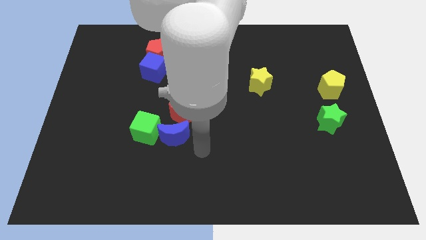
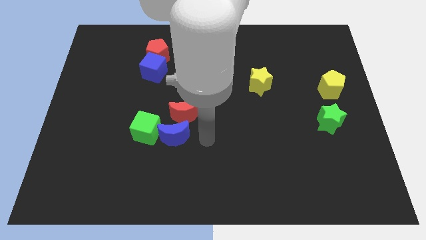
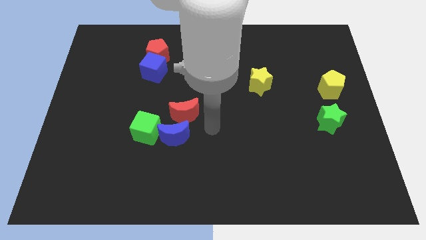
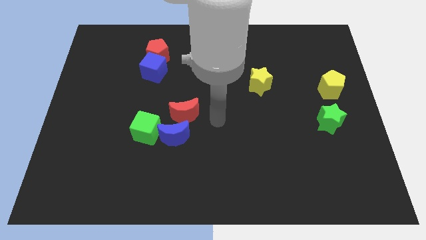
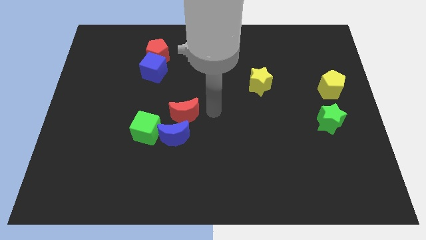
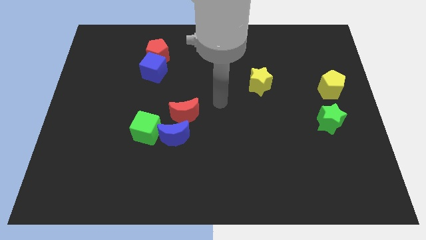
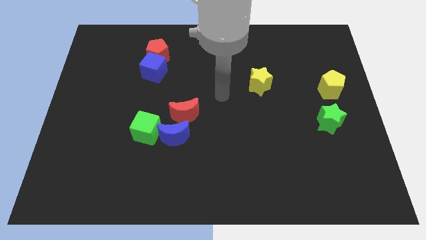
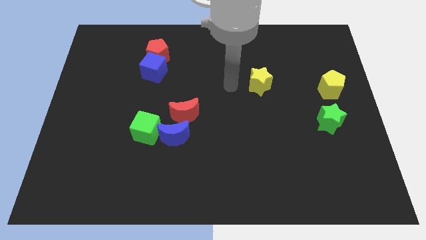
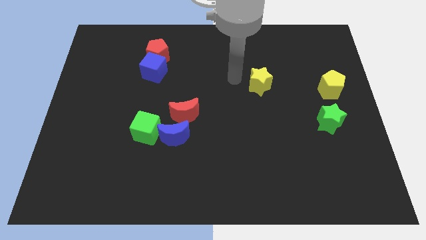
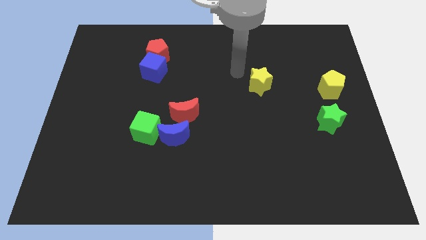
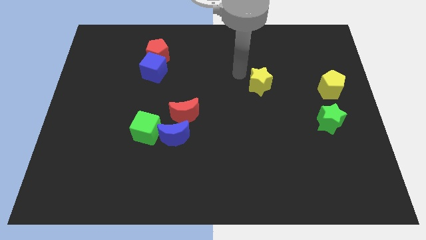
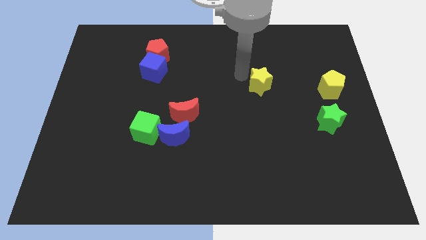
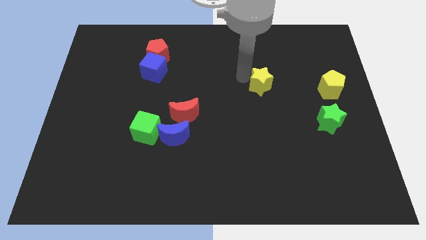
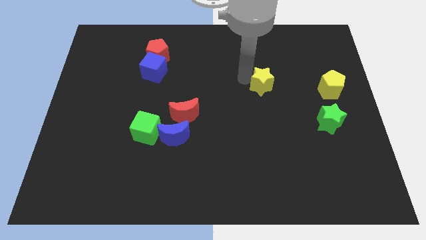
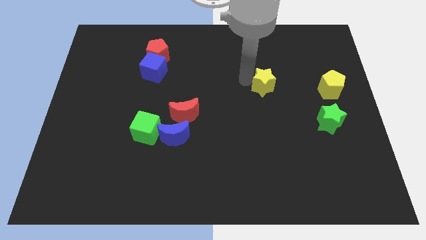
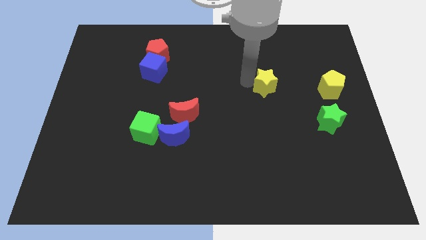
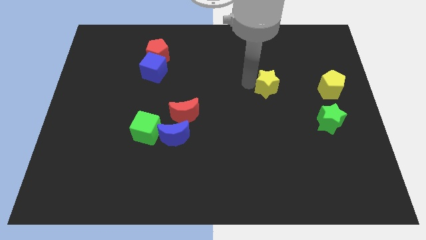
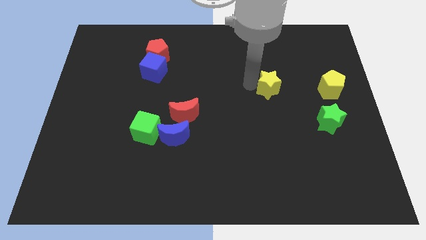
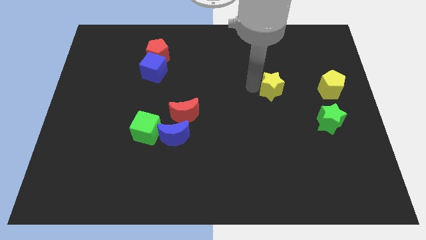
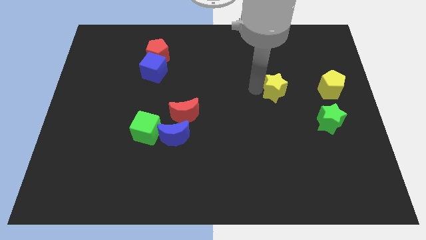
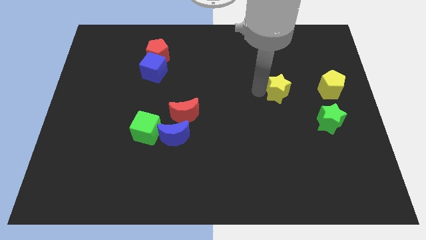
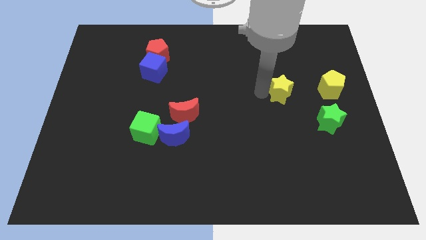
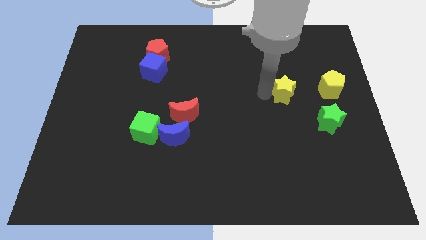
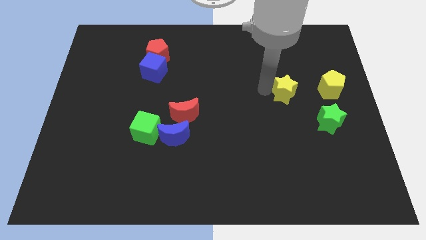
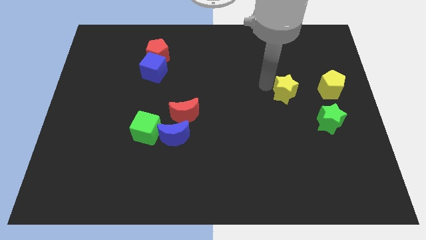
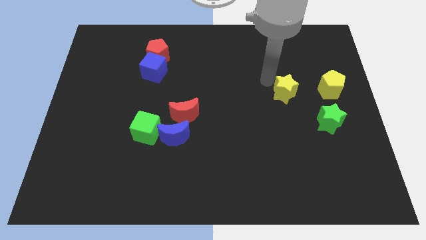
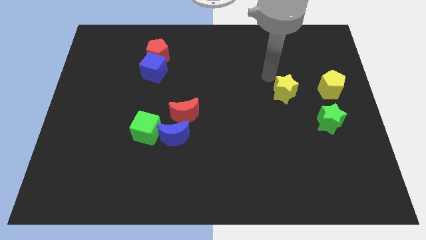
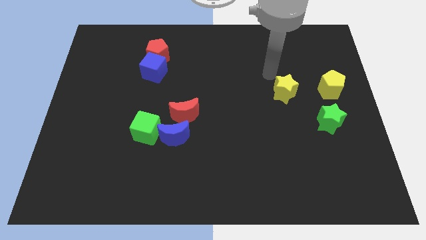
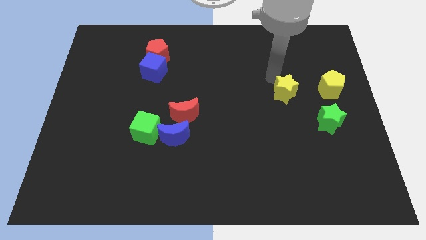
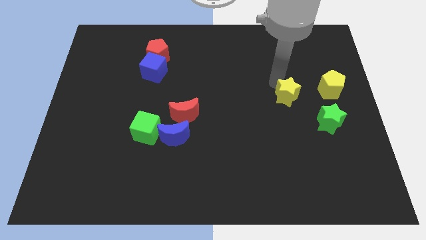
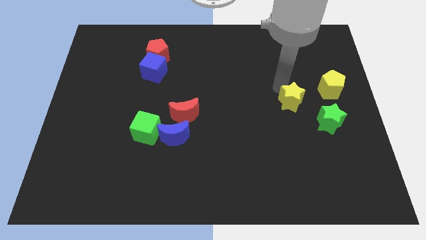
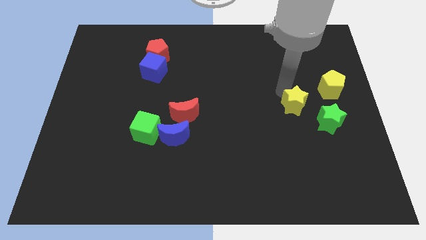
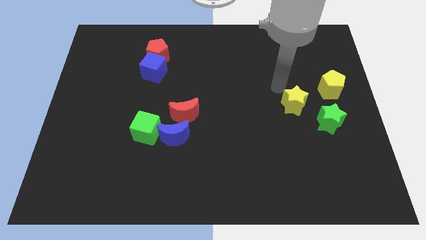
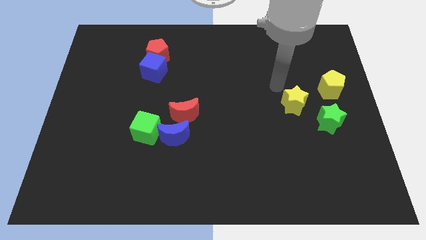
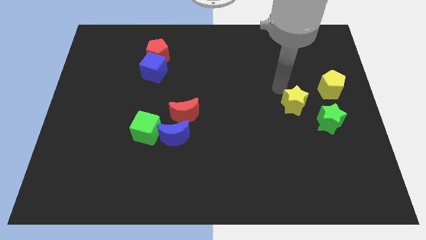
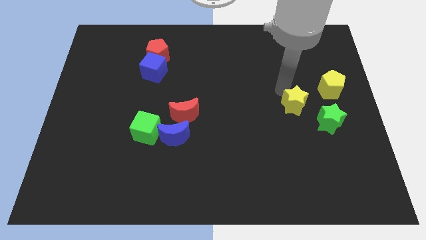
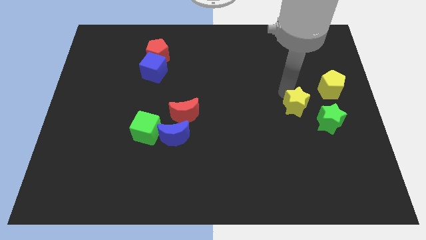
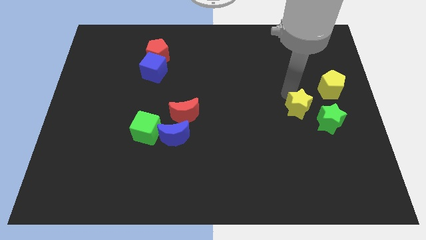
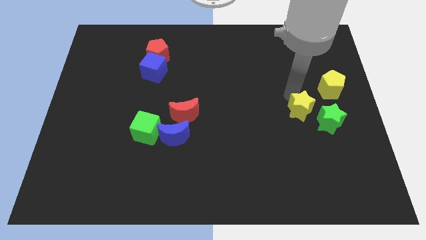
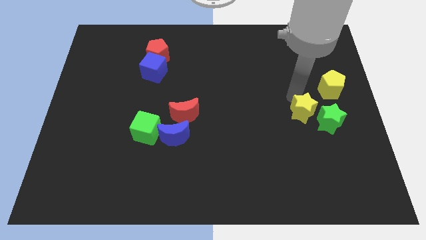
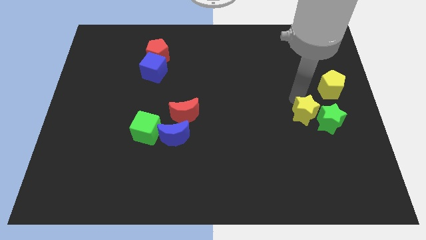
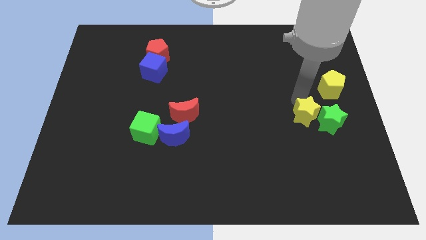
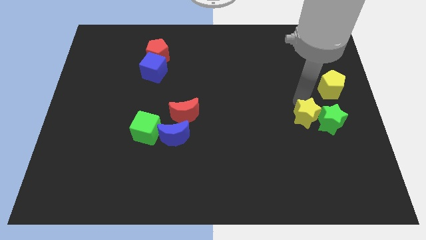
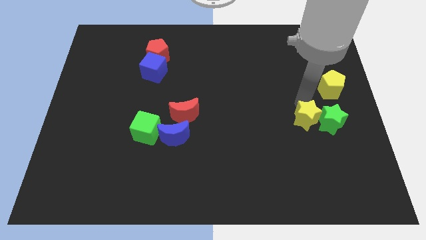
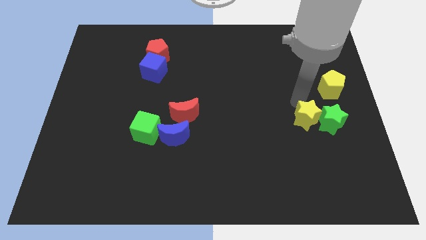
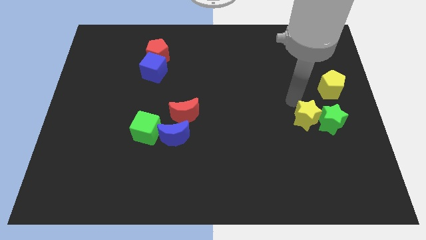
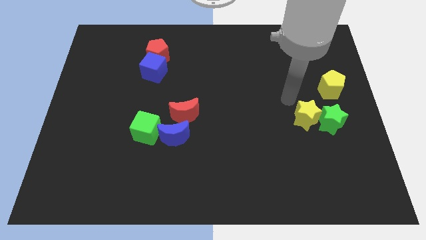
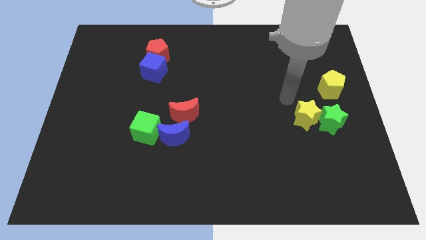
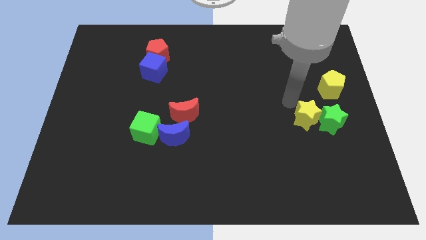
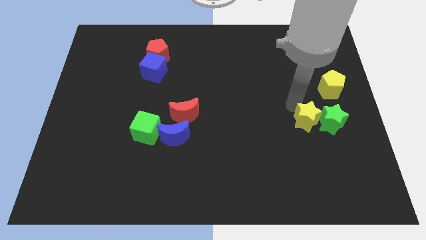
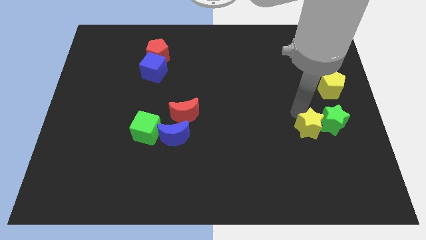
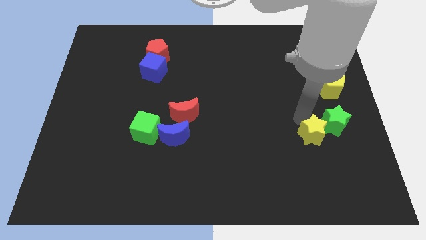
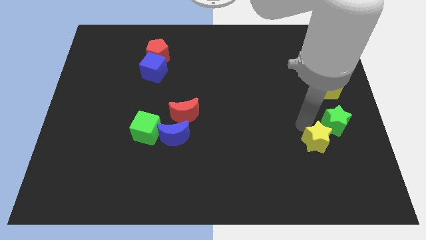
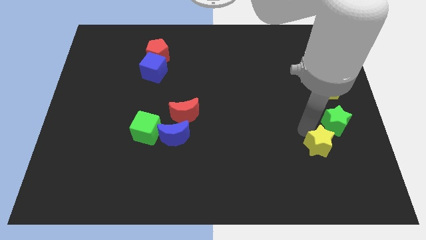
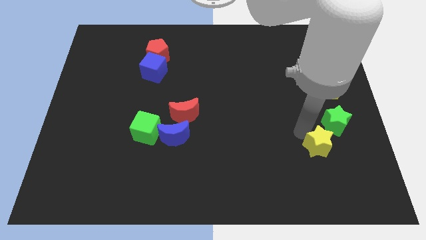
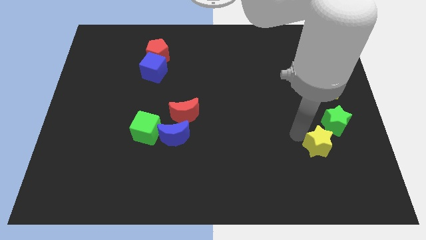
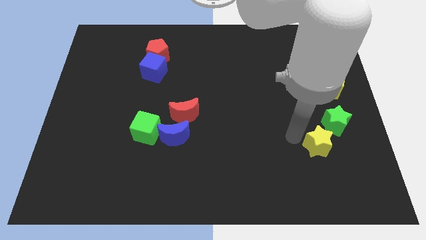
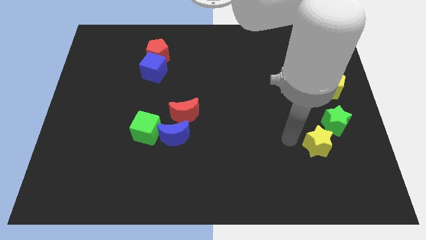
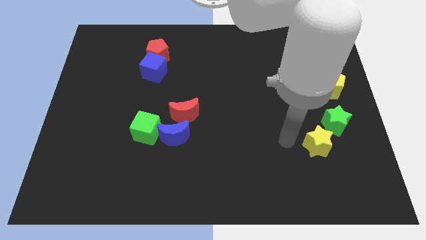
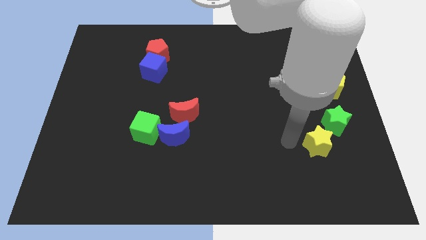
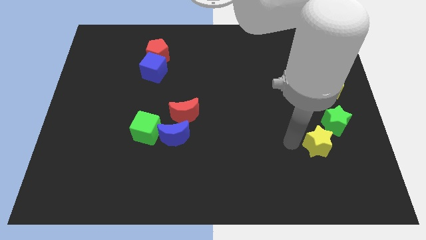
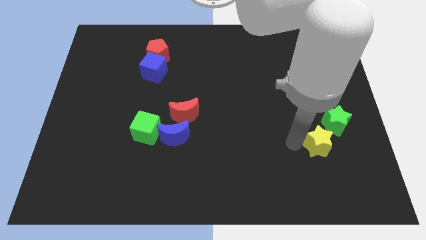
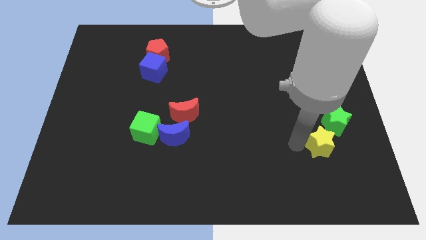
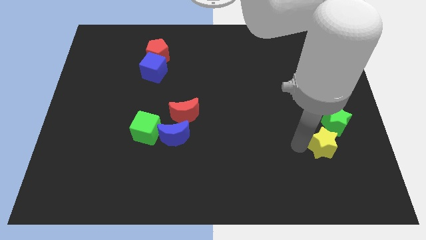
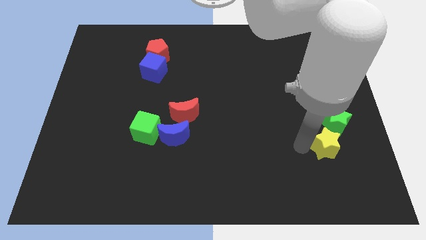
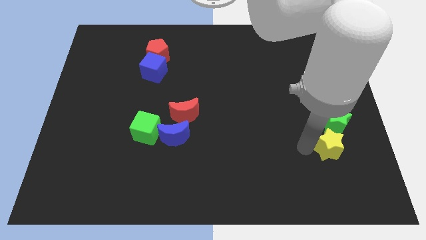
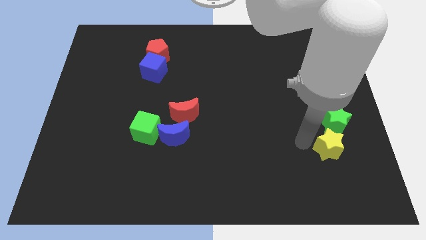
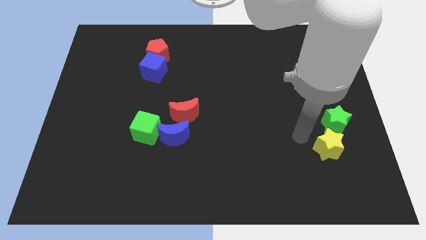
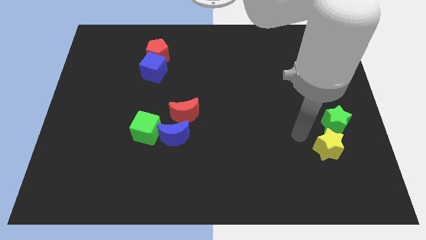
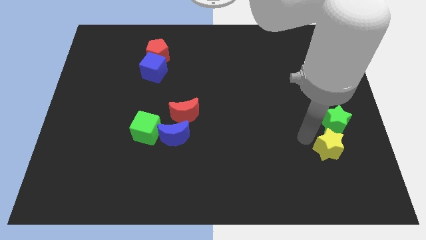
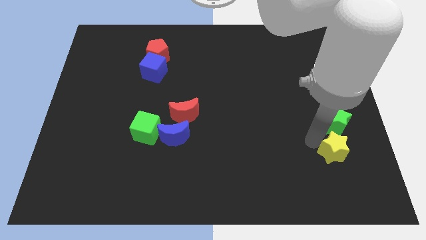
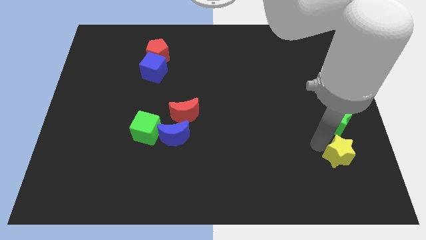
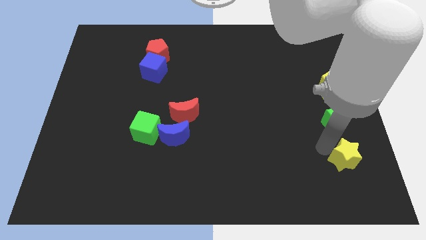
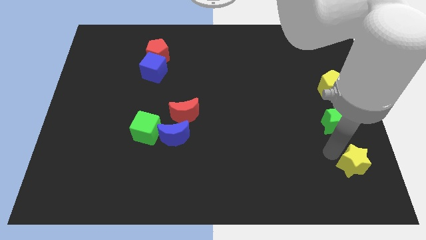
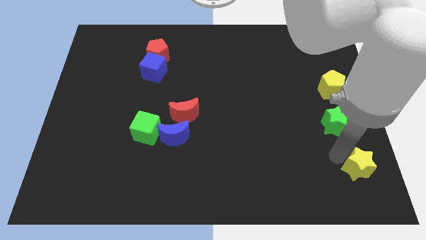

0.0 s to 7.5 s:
move the yellow star to the bottom right
